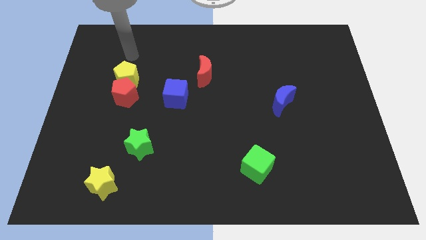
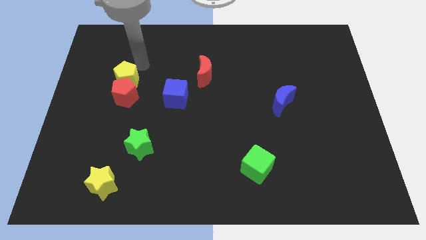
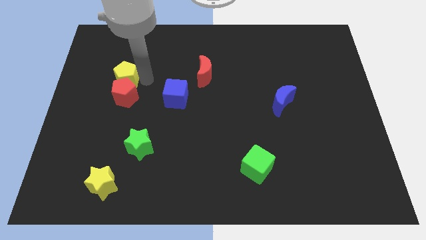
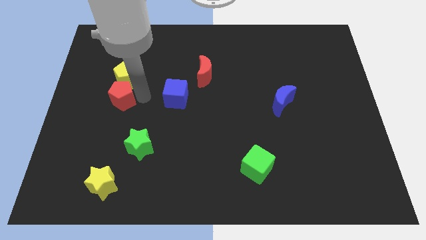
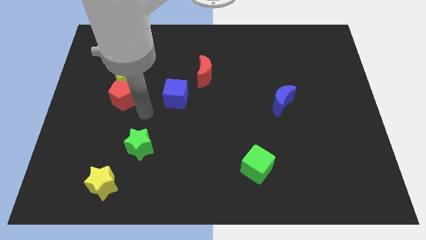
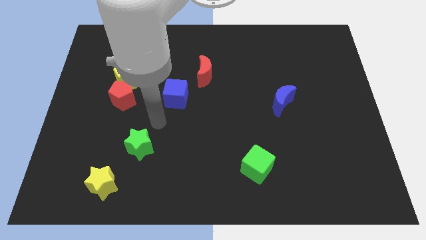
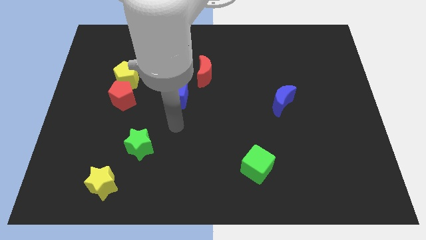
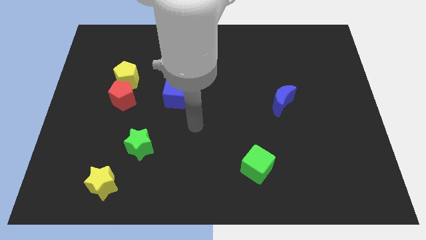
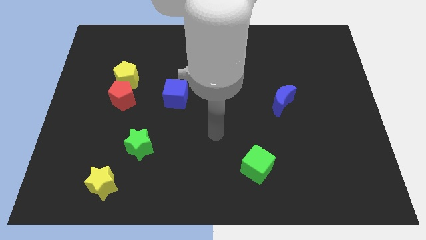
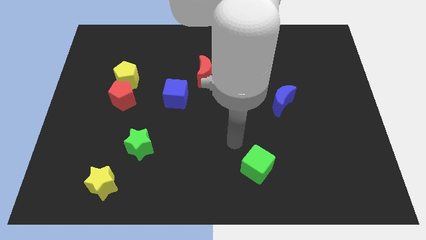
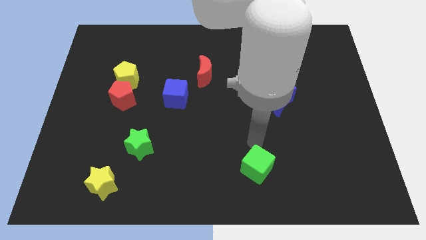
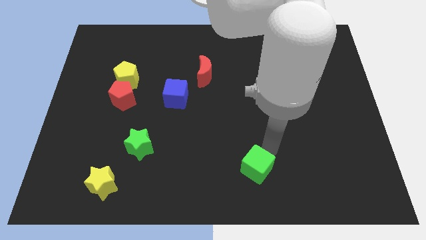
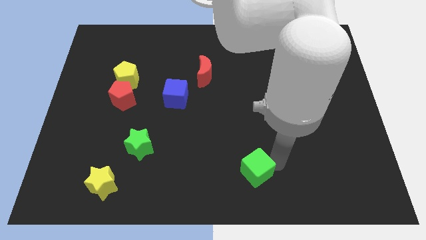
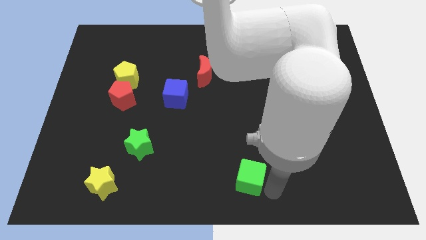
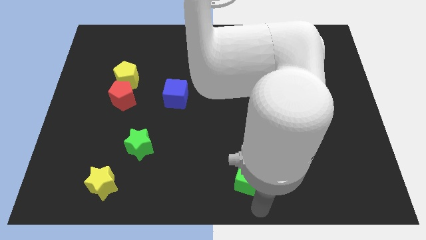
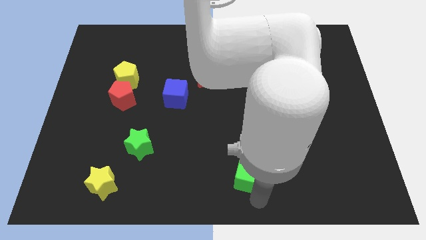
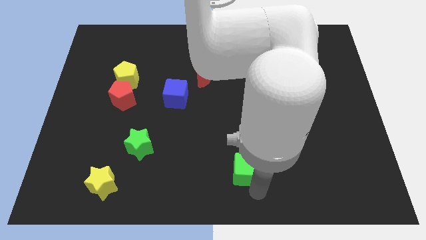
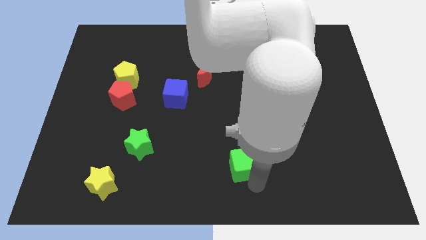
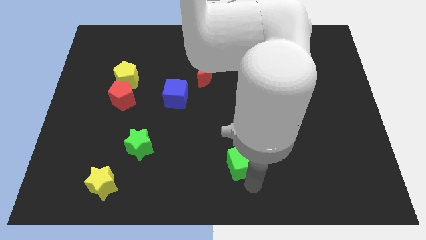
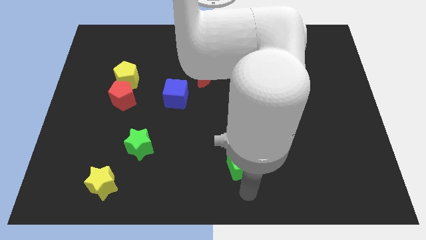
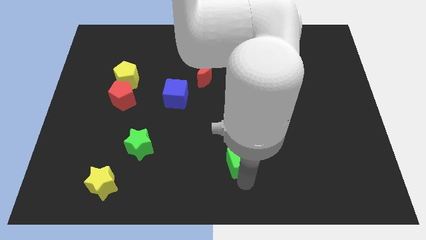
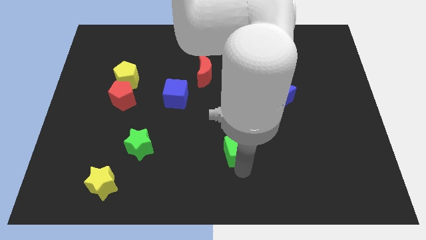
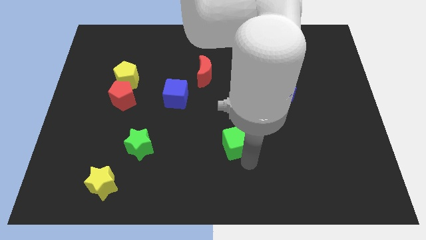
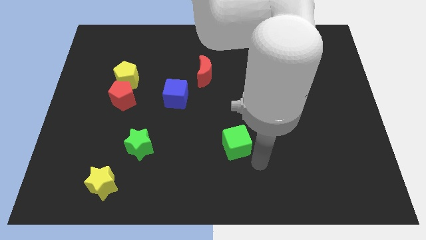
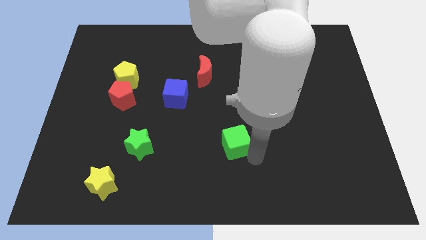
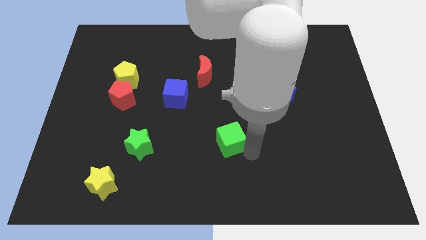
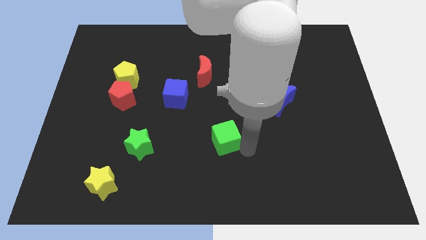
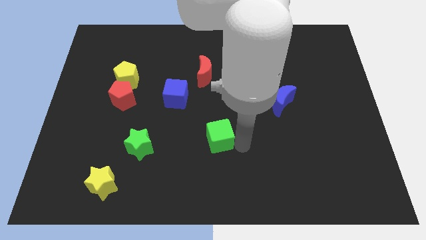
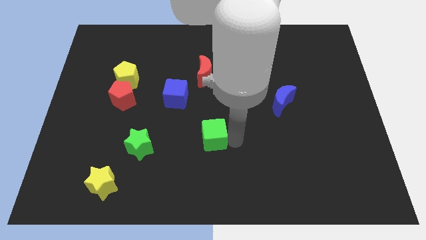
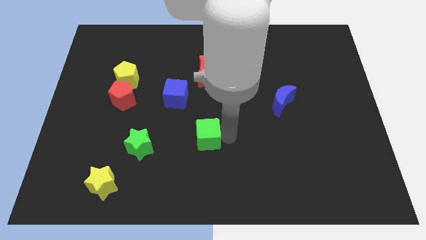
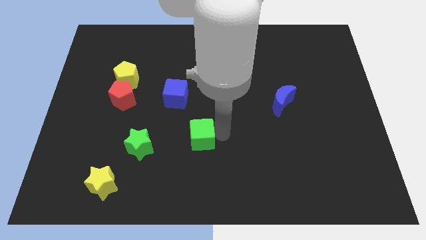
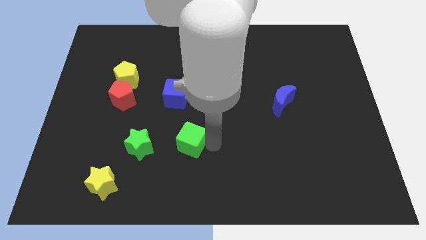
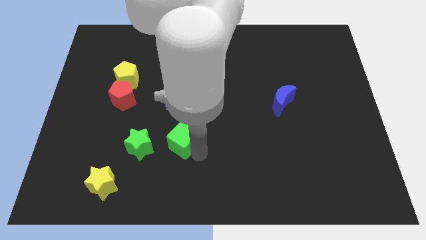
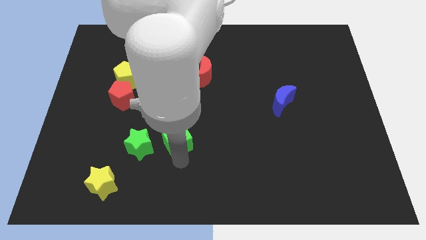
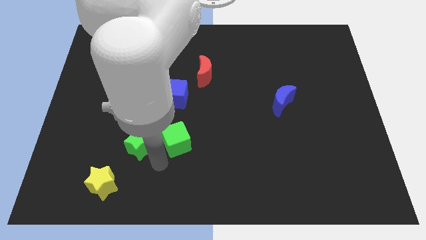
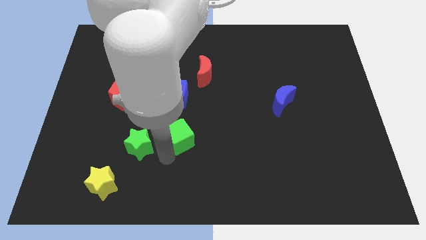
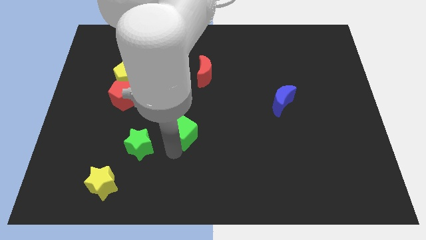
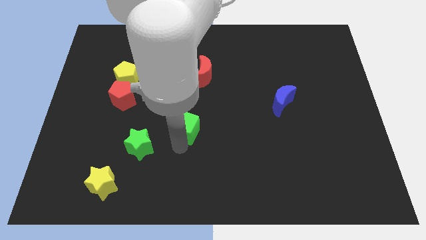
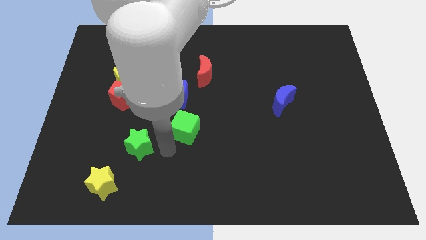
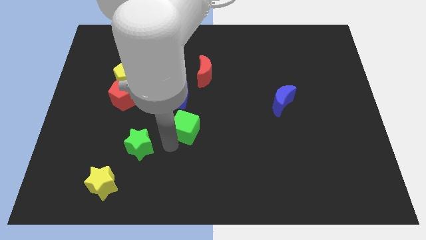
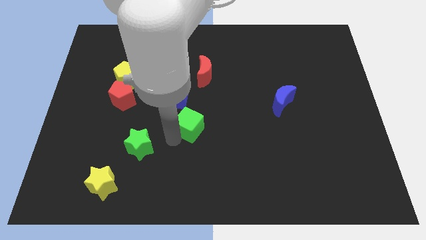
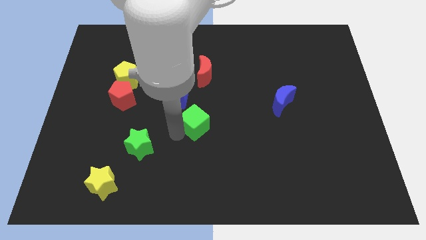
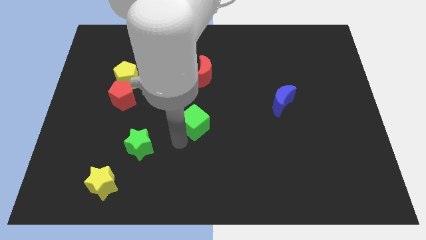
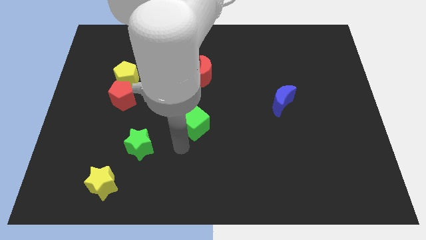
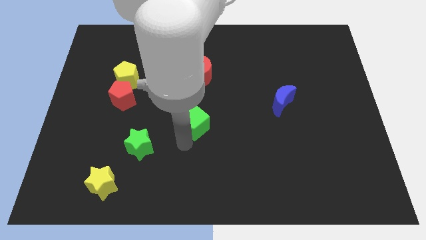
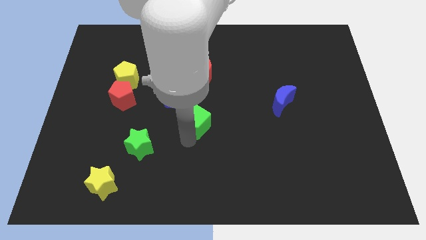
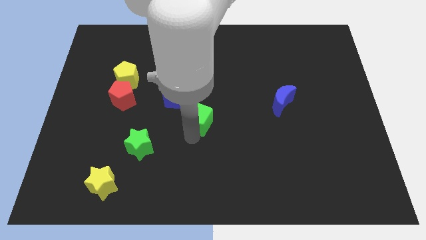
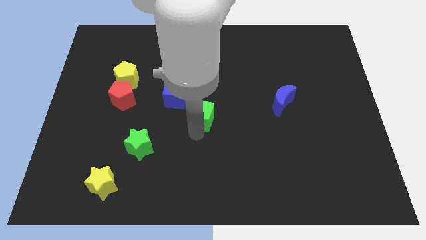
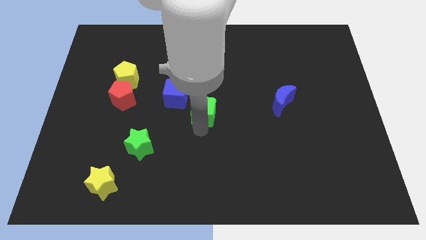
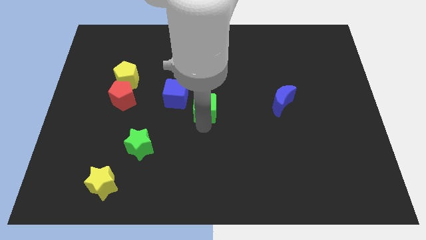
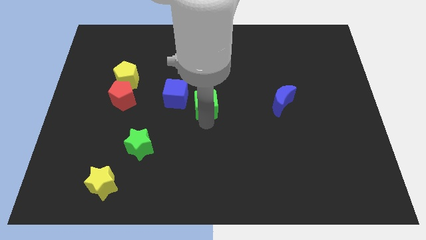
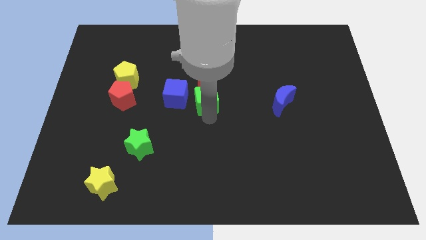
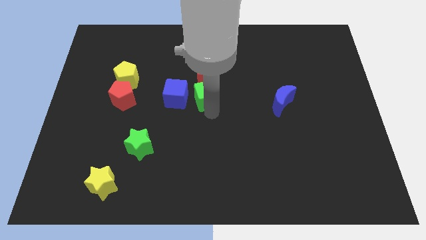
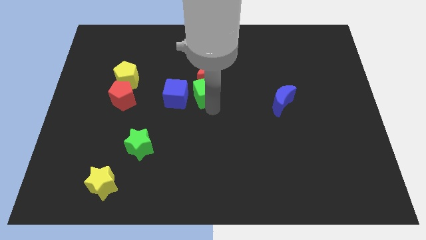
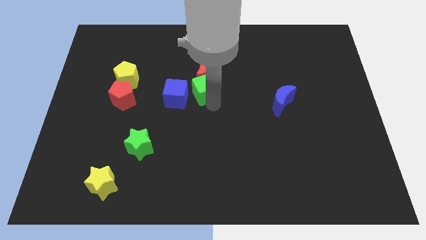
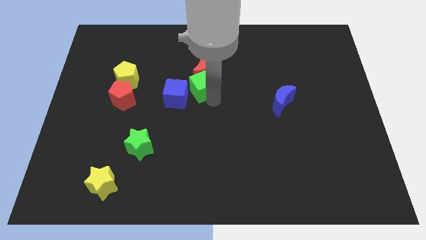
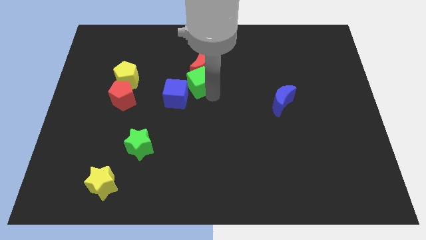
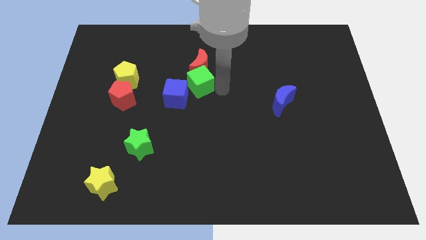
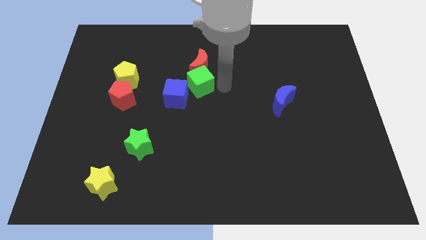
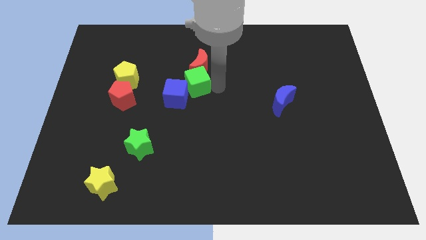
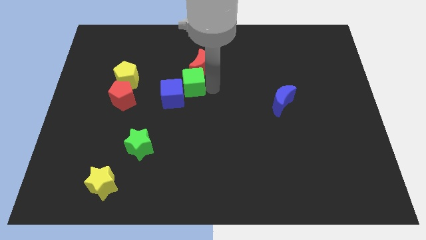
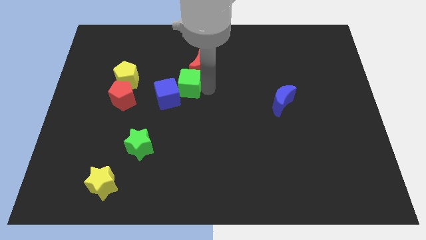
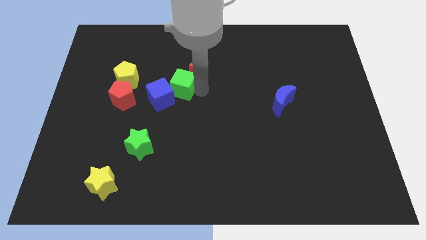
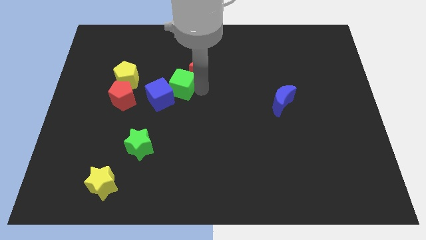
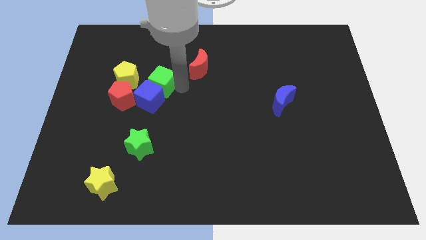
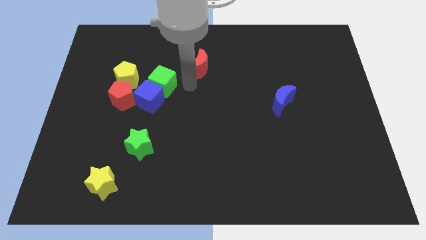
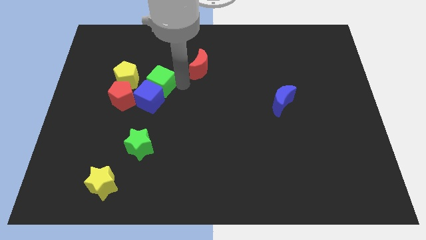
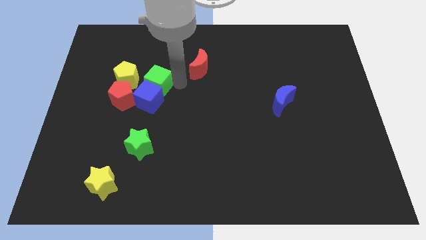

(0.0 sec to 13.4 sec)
move the green cube diagonally up and to the left of the blue cube

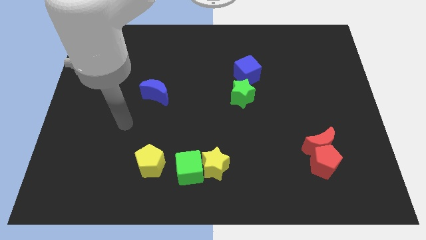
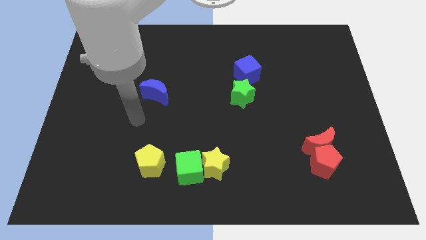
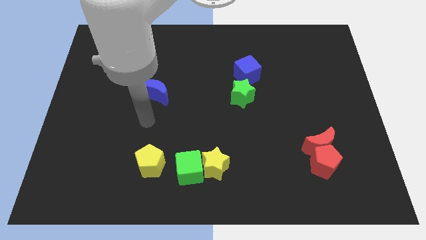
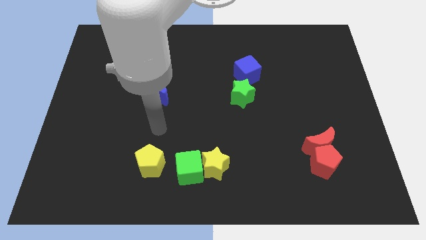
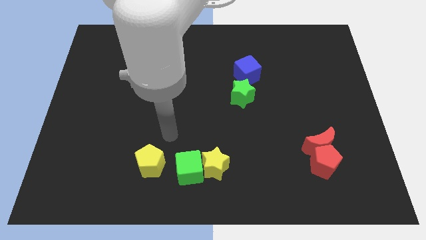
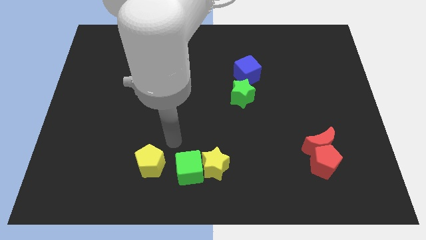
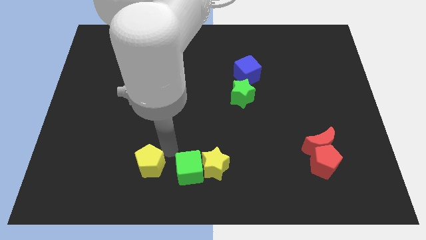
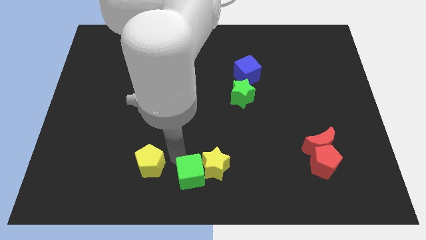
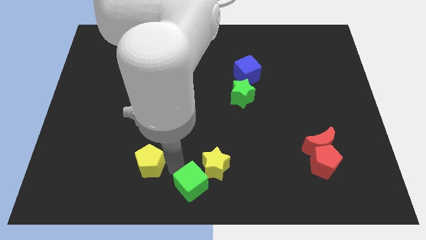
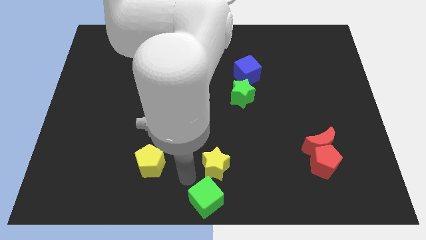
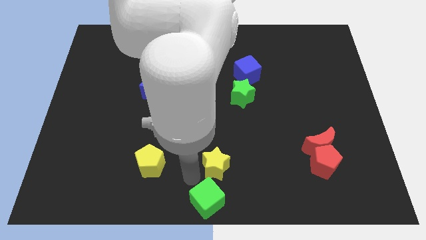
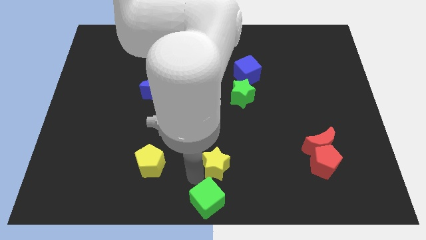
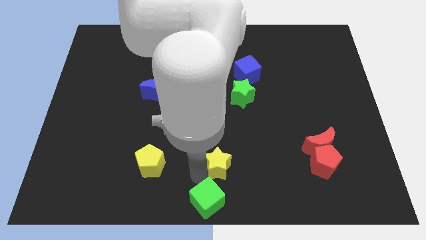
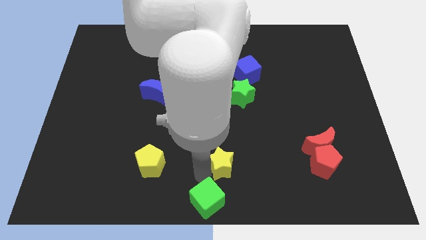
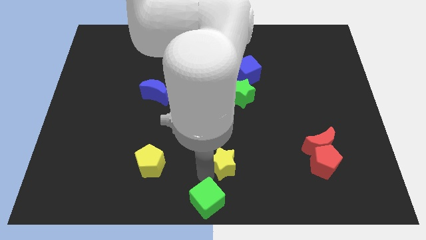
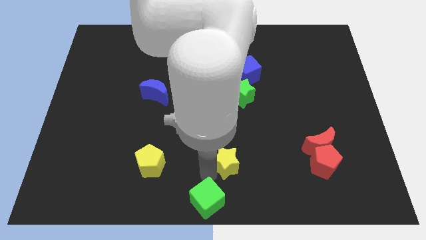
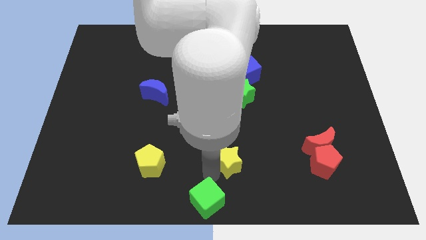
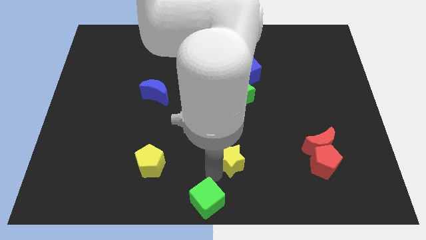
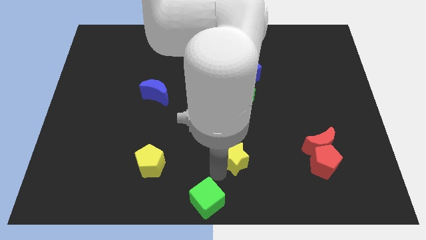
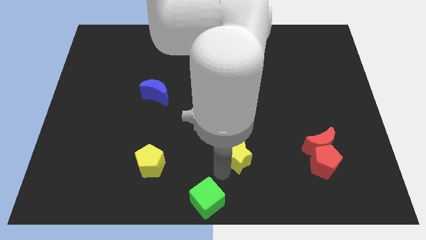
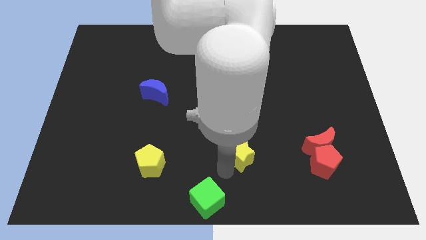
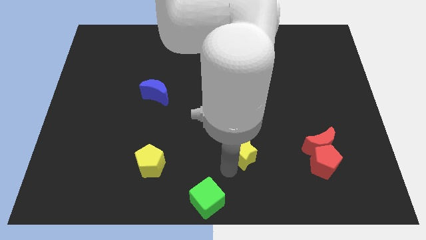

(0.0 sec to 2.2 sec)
move the yellow star to the bottom of the green star
